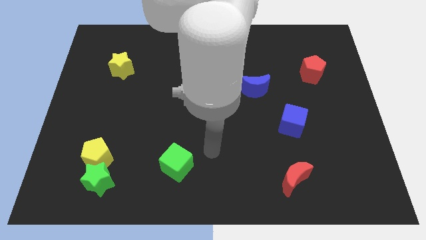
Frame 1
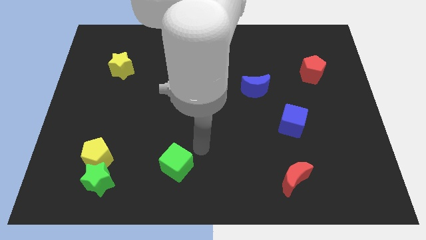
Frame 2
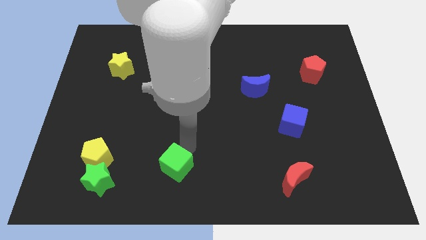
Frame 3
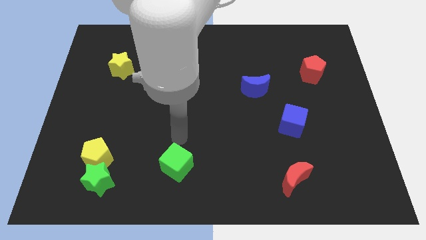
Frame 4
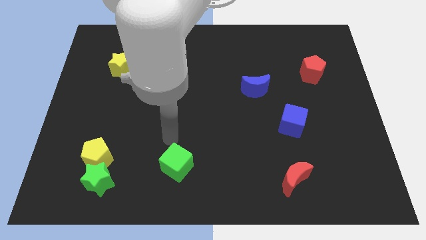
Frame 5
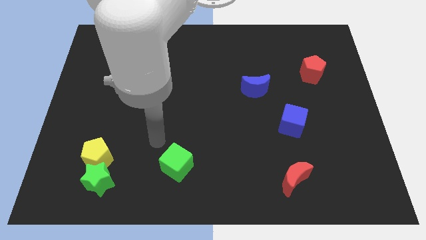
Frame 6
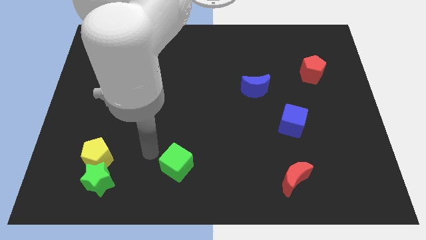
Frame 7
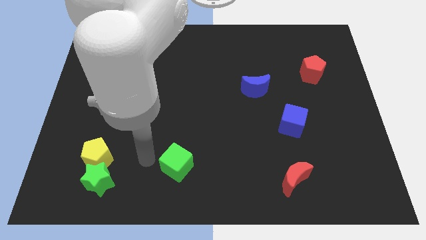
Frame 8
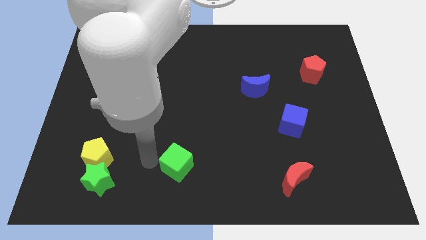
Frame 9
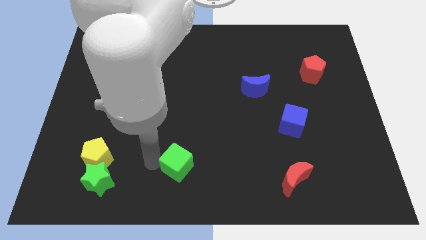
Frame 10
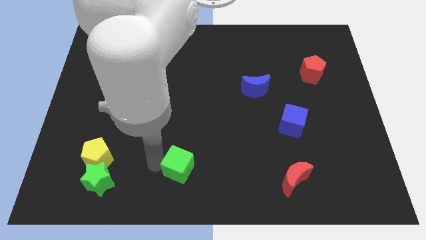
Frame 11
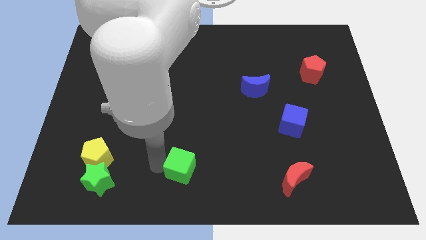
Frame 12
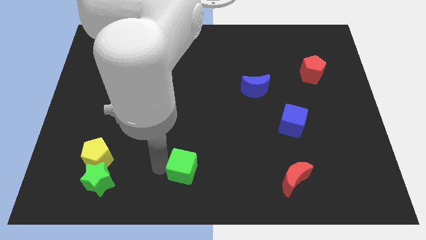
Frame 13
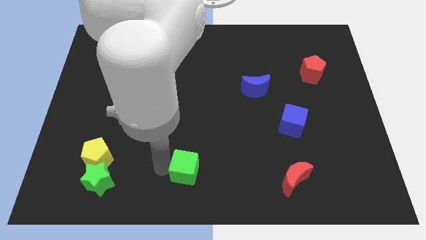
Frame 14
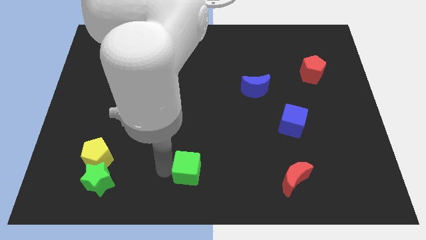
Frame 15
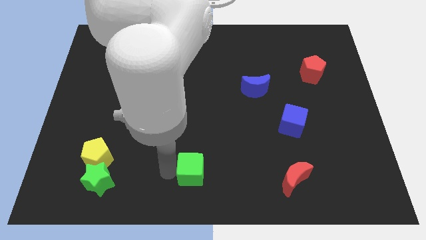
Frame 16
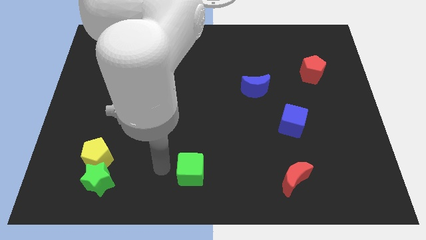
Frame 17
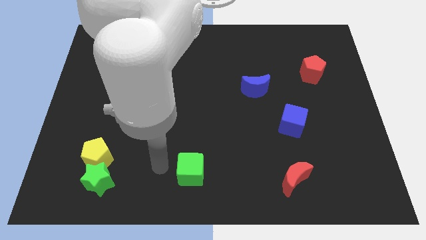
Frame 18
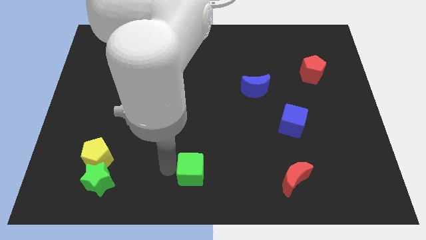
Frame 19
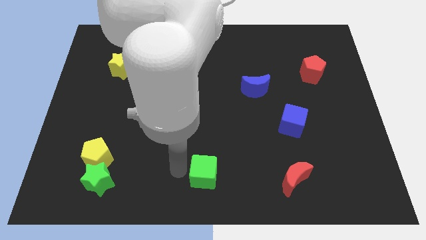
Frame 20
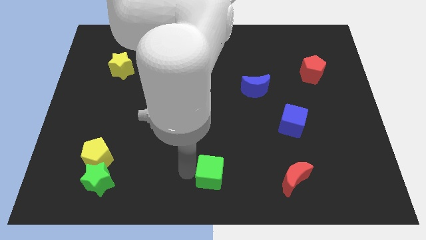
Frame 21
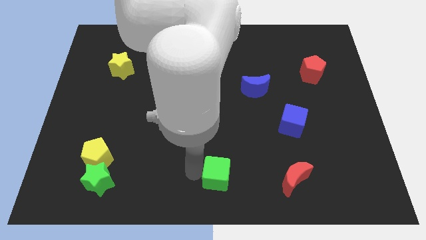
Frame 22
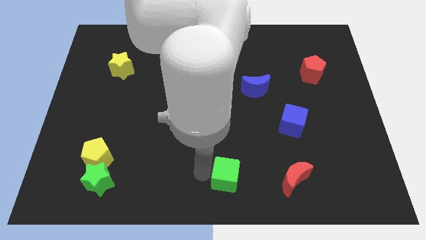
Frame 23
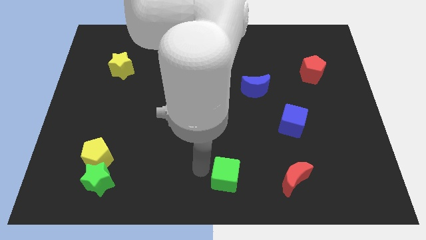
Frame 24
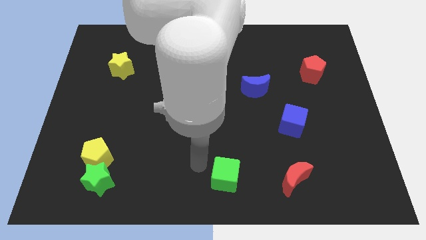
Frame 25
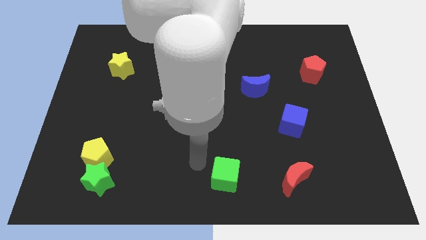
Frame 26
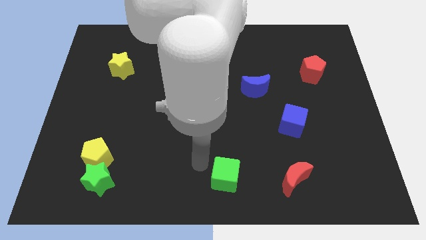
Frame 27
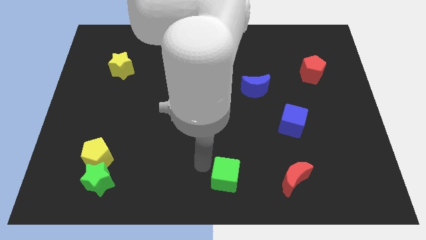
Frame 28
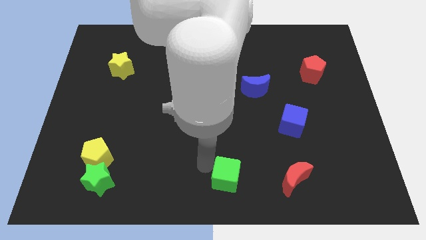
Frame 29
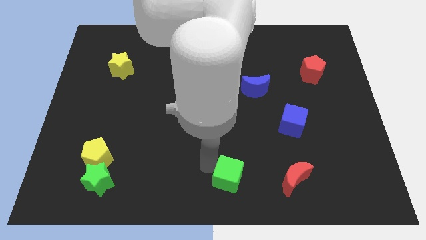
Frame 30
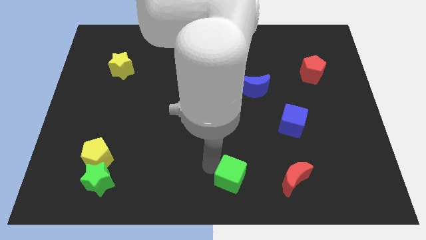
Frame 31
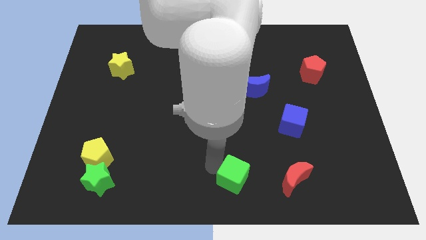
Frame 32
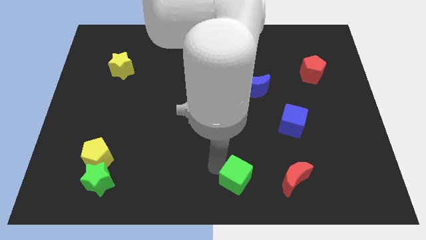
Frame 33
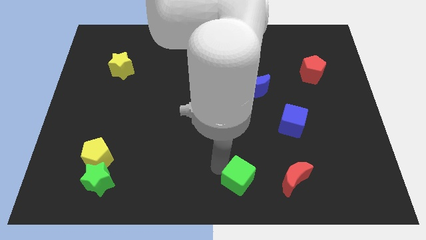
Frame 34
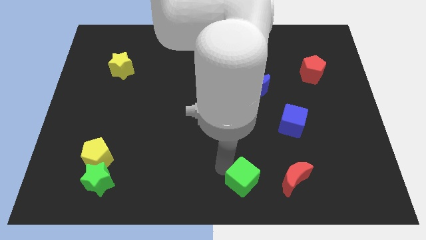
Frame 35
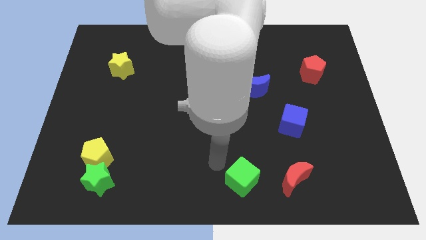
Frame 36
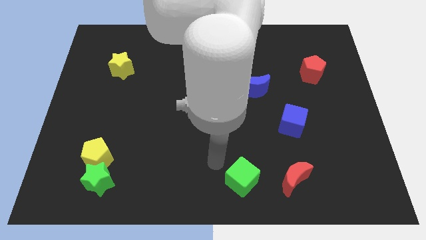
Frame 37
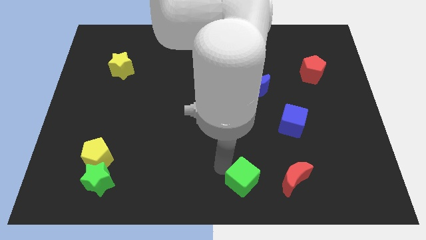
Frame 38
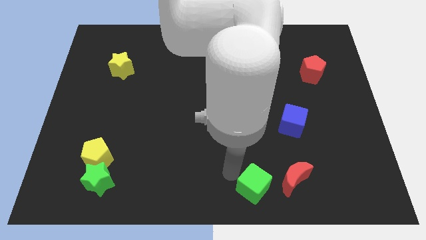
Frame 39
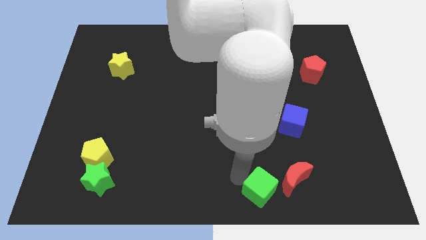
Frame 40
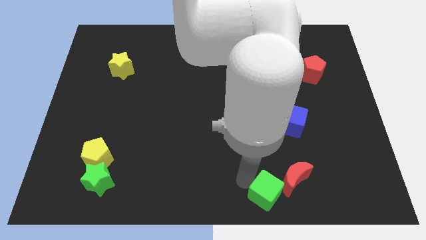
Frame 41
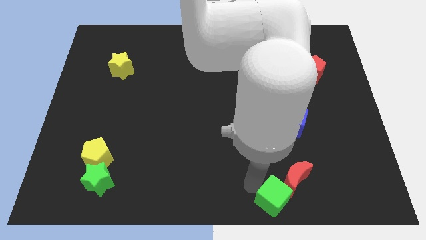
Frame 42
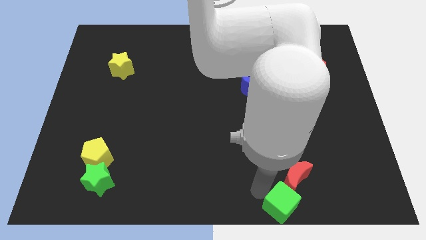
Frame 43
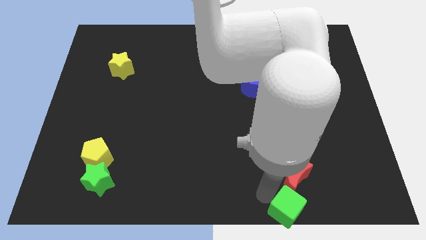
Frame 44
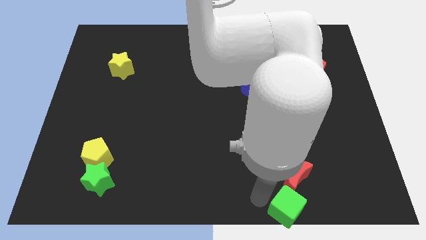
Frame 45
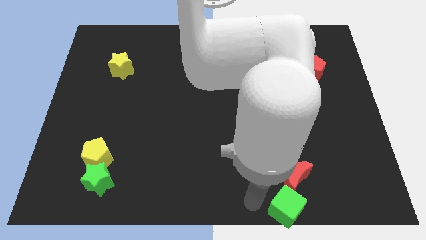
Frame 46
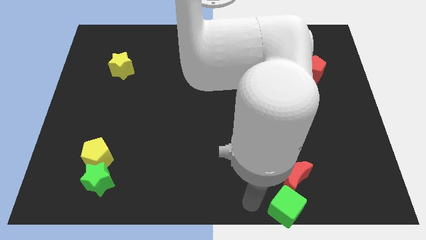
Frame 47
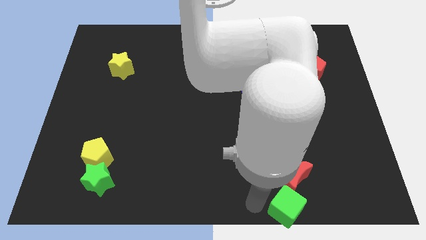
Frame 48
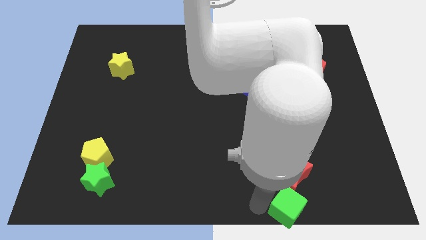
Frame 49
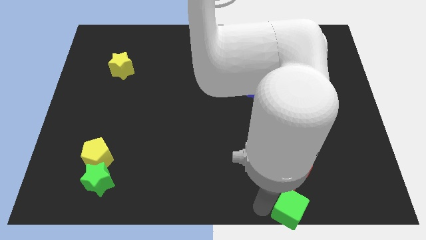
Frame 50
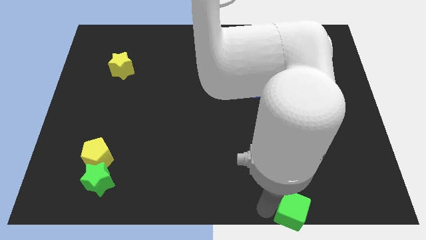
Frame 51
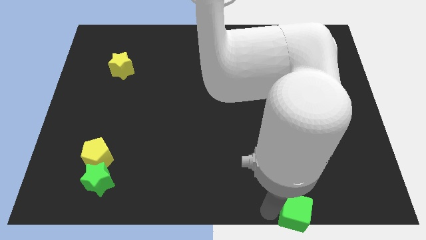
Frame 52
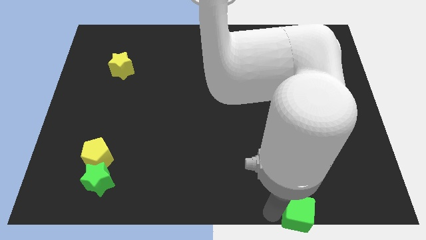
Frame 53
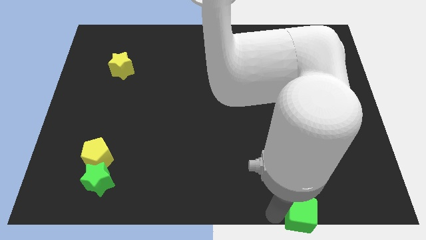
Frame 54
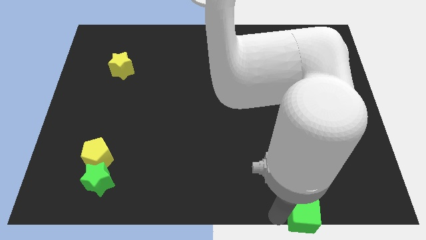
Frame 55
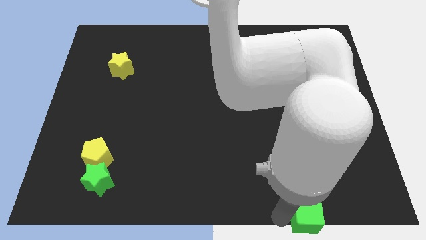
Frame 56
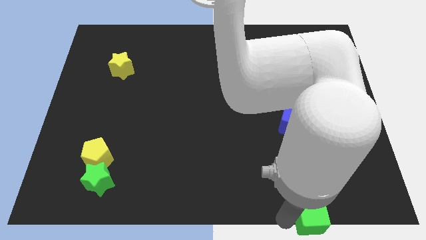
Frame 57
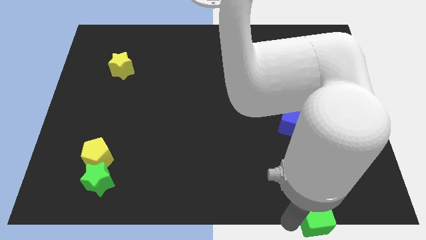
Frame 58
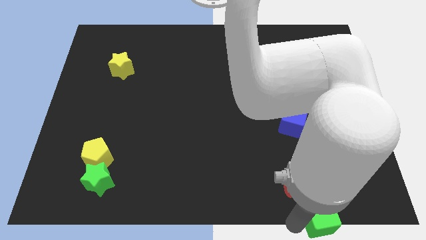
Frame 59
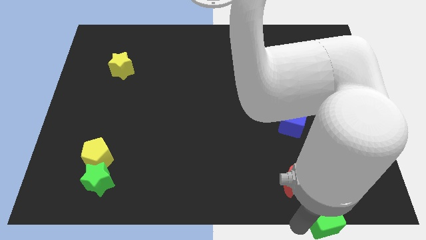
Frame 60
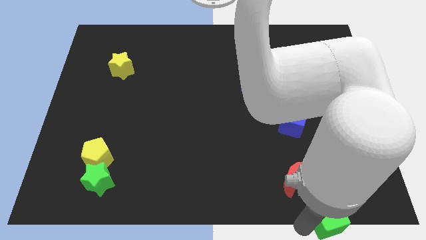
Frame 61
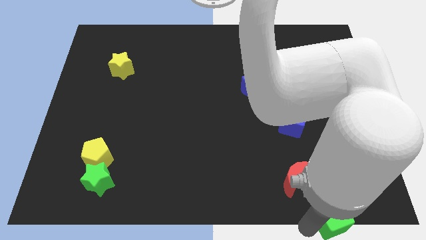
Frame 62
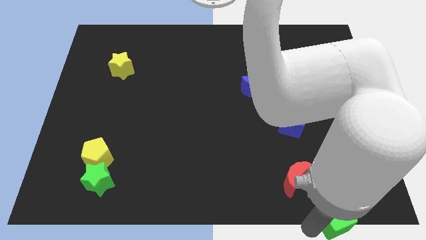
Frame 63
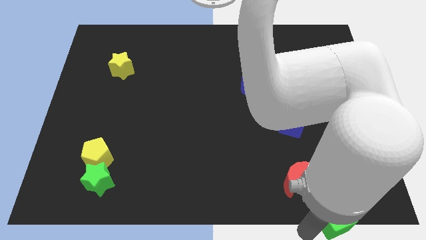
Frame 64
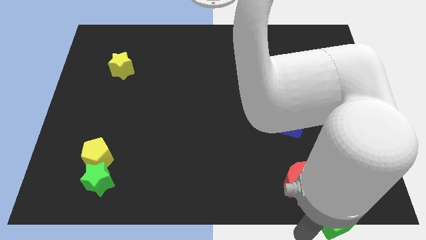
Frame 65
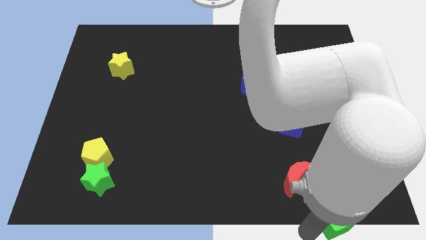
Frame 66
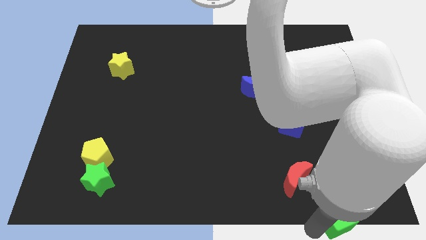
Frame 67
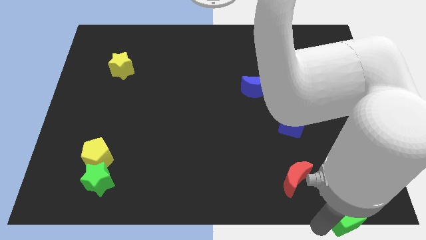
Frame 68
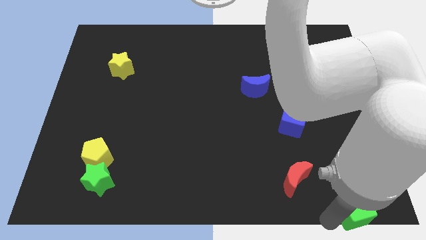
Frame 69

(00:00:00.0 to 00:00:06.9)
push the green cube to the bottom right of the board
